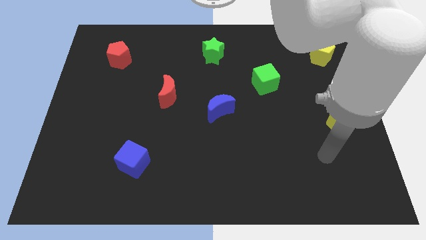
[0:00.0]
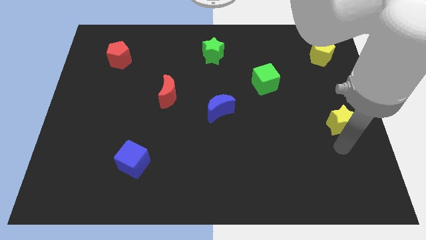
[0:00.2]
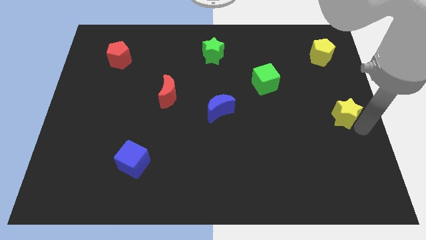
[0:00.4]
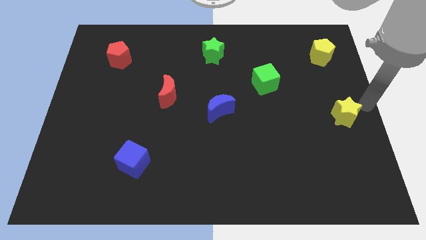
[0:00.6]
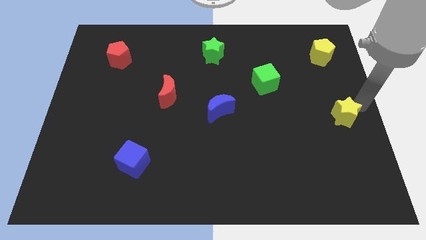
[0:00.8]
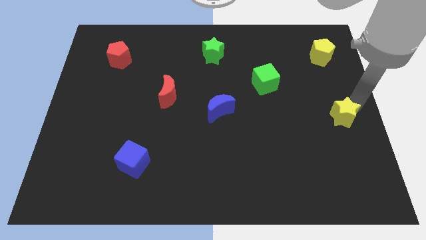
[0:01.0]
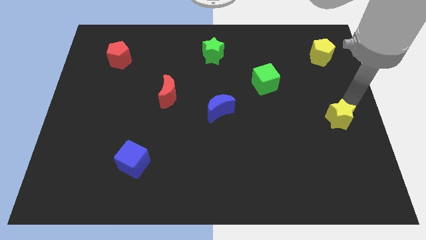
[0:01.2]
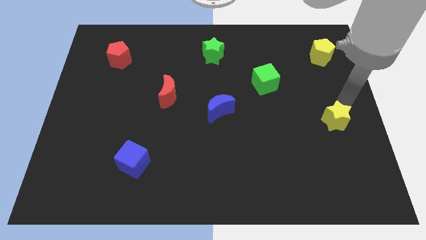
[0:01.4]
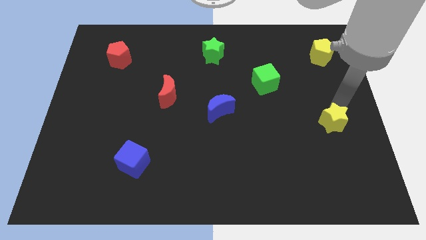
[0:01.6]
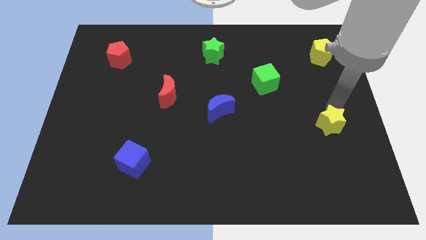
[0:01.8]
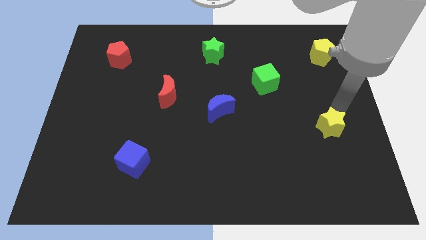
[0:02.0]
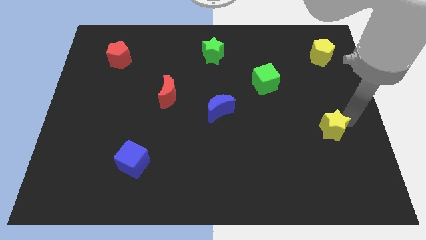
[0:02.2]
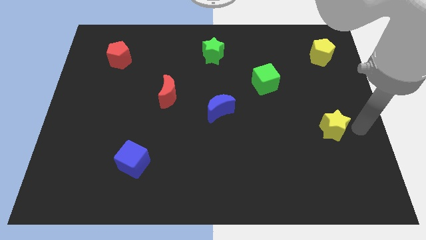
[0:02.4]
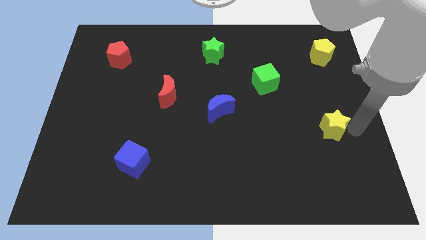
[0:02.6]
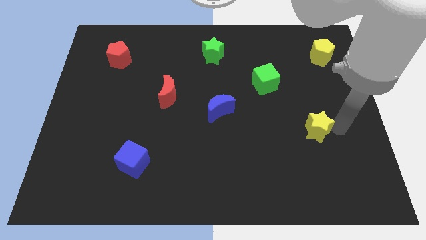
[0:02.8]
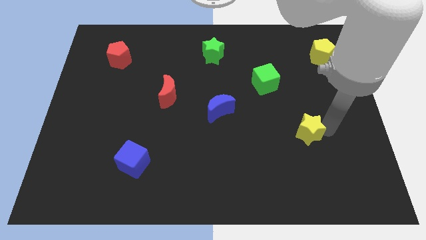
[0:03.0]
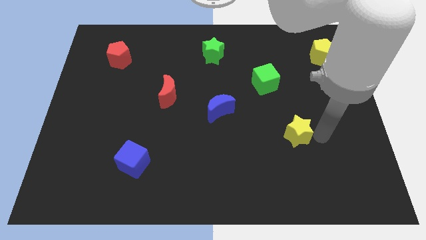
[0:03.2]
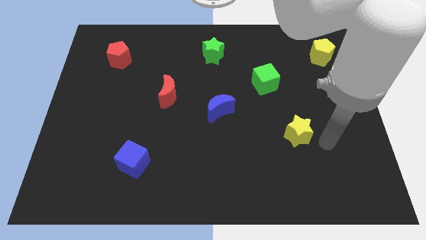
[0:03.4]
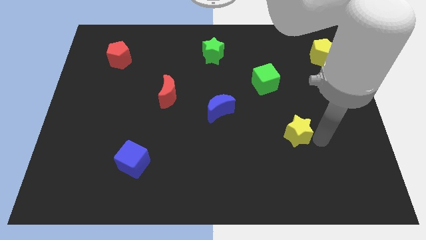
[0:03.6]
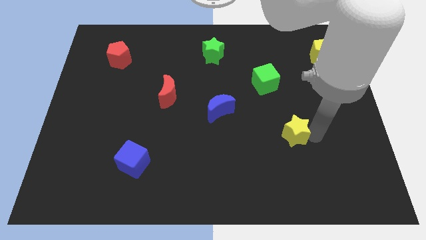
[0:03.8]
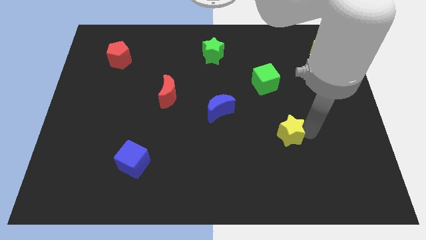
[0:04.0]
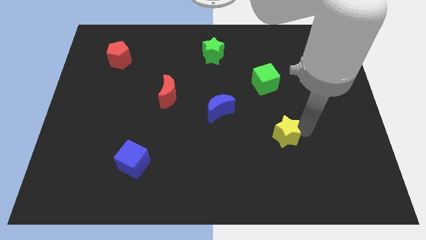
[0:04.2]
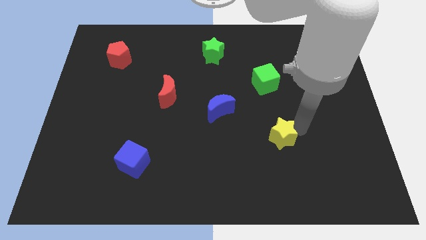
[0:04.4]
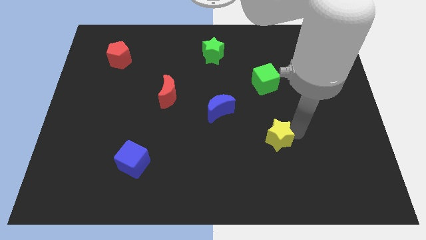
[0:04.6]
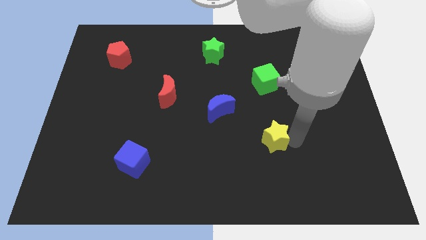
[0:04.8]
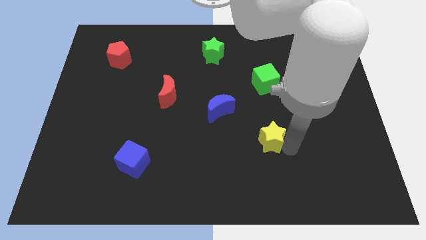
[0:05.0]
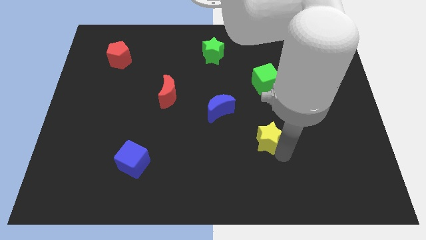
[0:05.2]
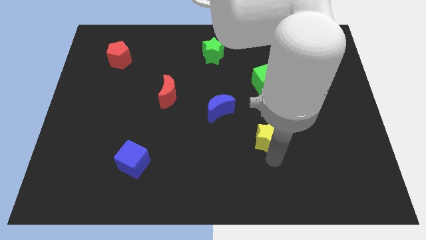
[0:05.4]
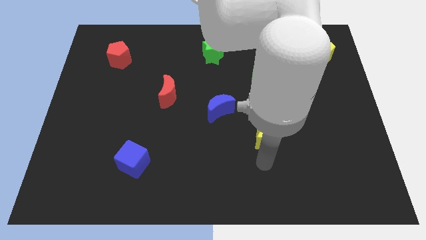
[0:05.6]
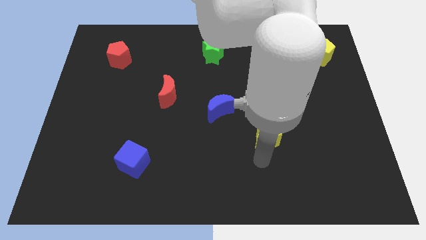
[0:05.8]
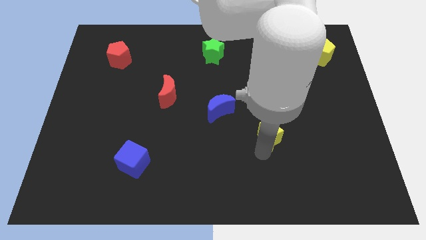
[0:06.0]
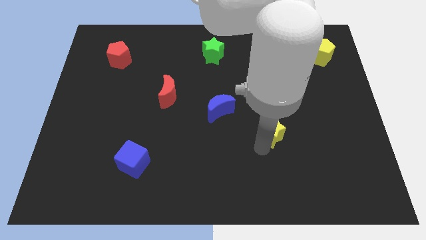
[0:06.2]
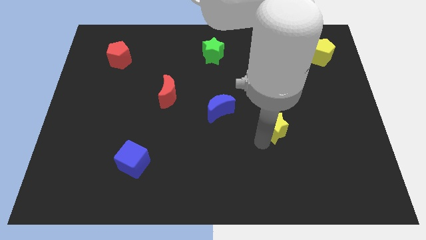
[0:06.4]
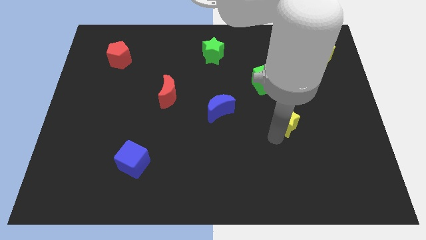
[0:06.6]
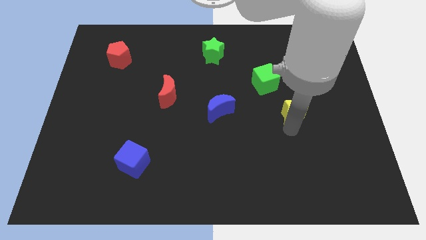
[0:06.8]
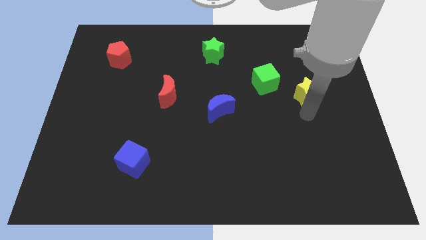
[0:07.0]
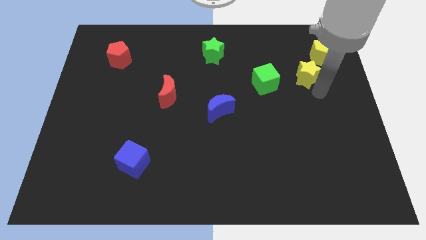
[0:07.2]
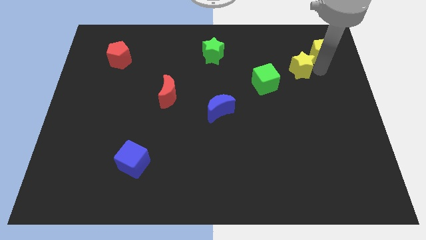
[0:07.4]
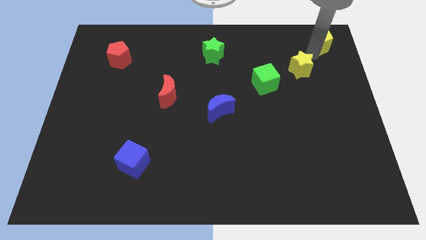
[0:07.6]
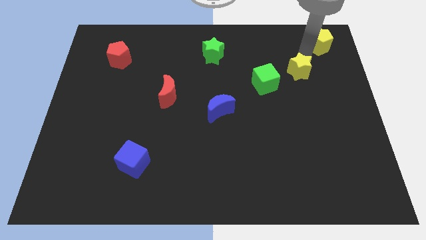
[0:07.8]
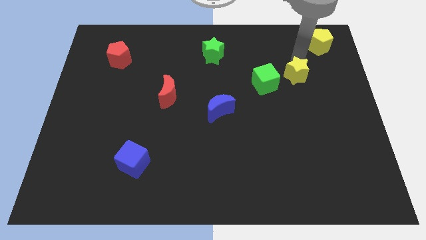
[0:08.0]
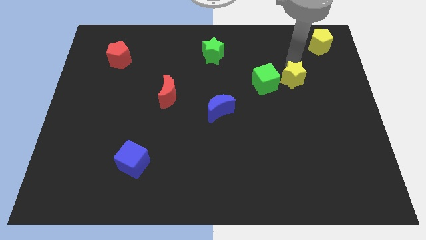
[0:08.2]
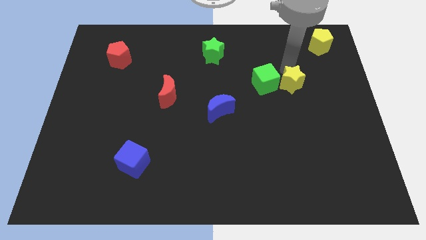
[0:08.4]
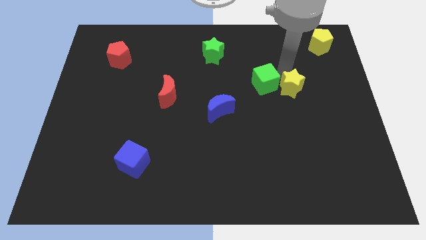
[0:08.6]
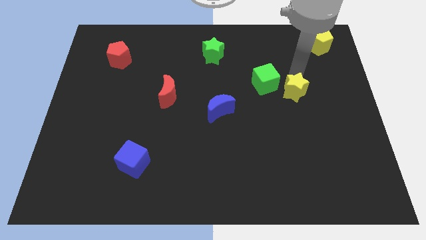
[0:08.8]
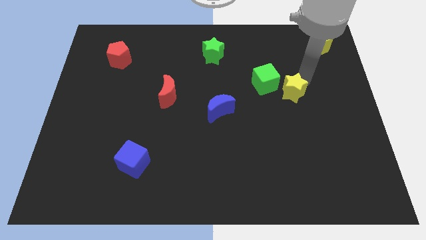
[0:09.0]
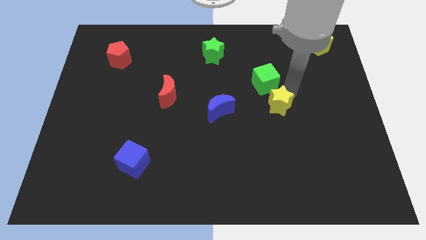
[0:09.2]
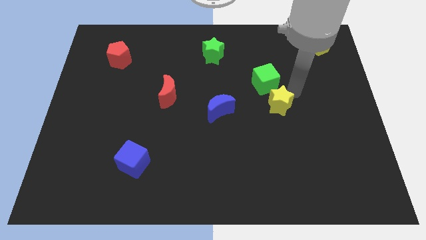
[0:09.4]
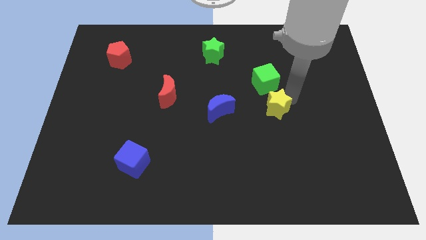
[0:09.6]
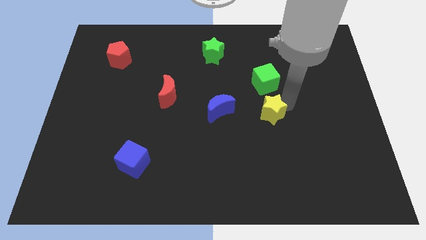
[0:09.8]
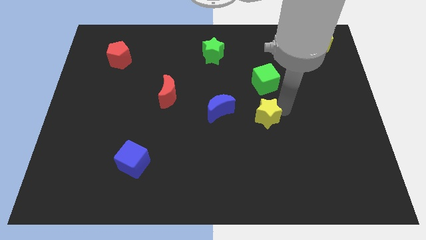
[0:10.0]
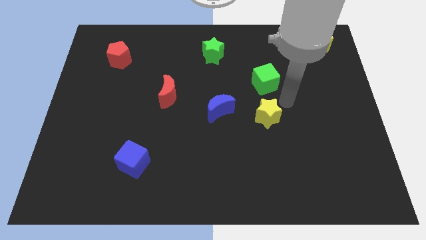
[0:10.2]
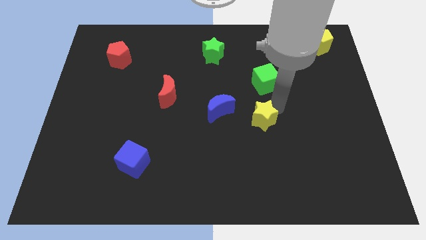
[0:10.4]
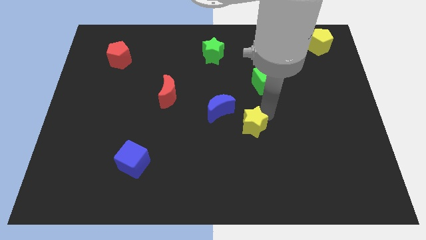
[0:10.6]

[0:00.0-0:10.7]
move the yellow star to the left

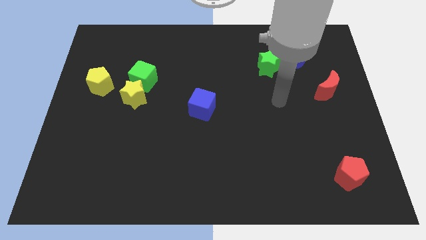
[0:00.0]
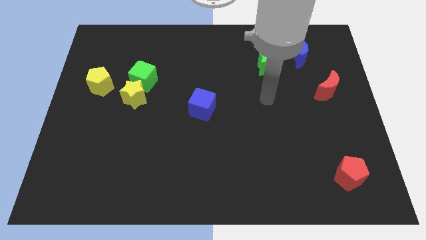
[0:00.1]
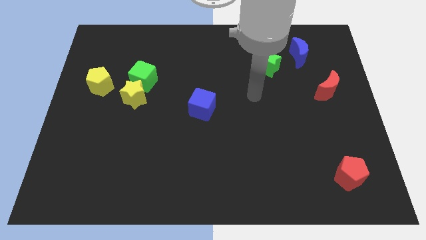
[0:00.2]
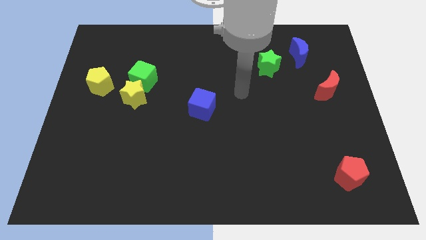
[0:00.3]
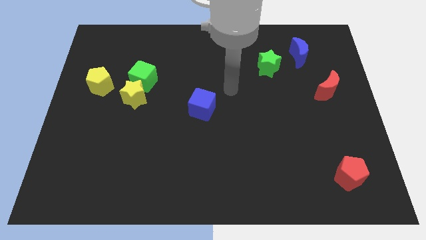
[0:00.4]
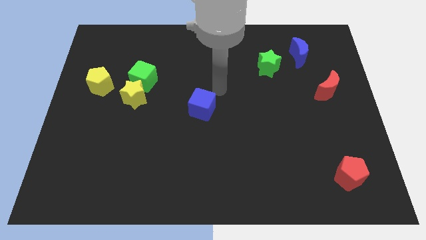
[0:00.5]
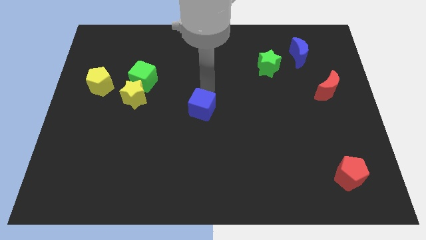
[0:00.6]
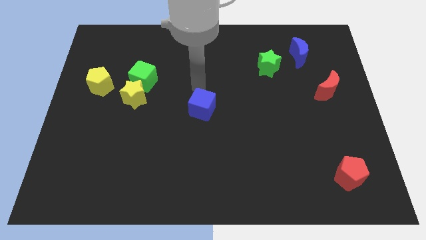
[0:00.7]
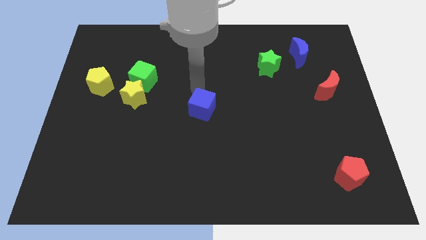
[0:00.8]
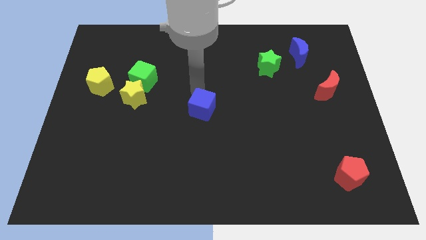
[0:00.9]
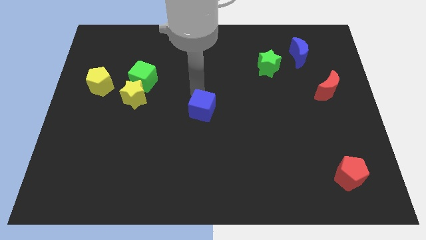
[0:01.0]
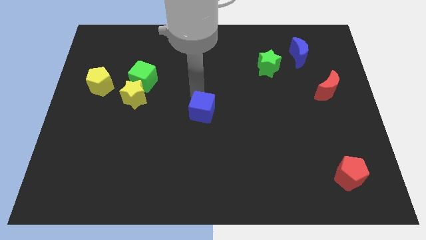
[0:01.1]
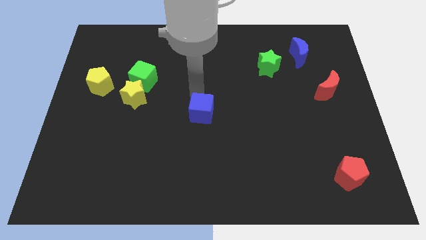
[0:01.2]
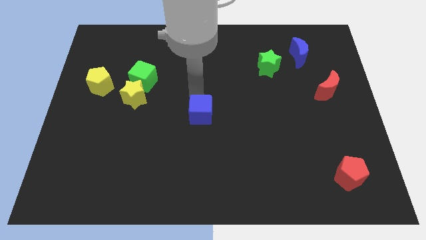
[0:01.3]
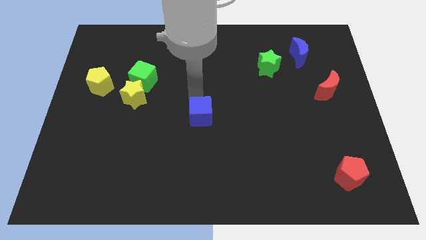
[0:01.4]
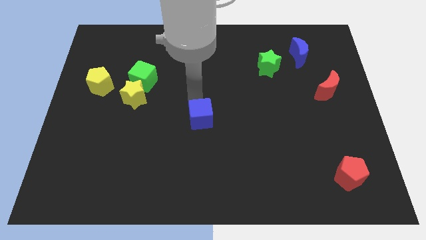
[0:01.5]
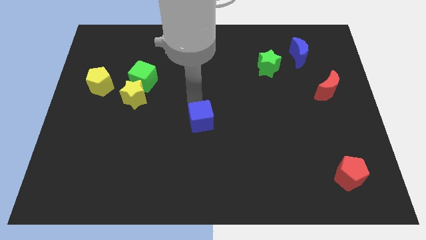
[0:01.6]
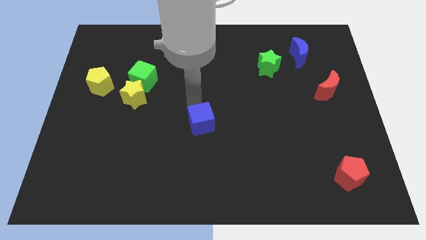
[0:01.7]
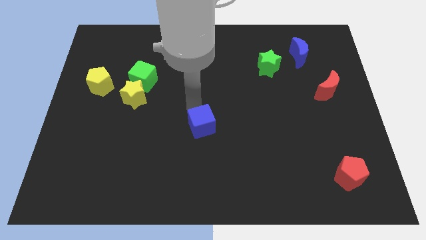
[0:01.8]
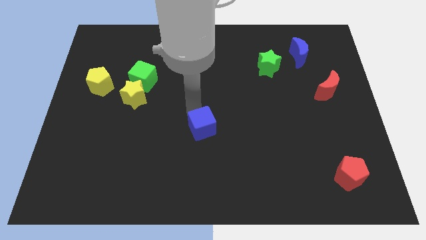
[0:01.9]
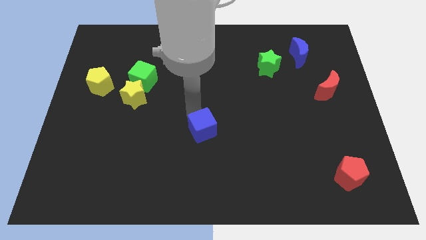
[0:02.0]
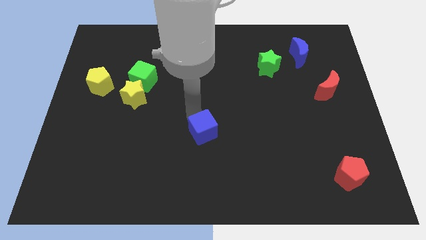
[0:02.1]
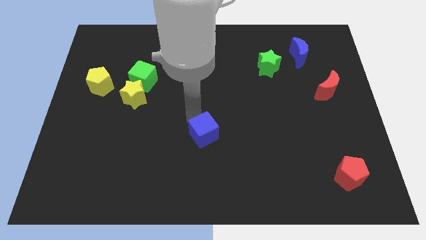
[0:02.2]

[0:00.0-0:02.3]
slide the blue cube somewhat down

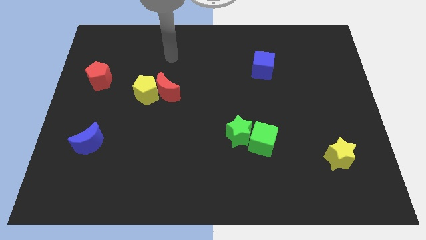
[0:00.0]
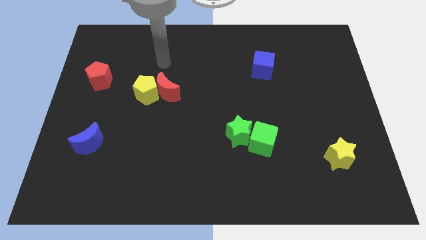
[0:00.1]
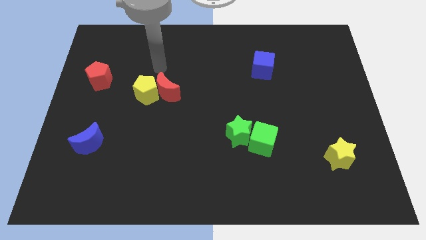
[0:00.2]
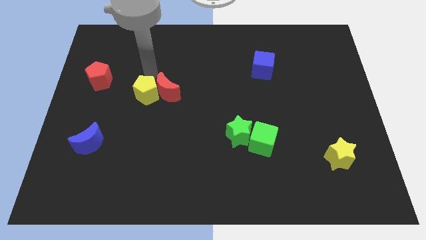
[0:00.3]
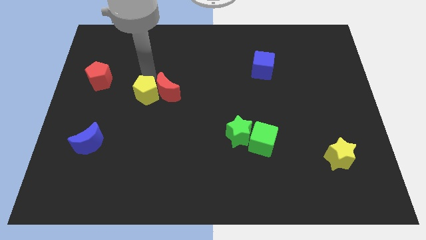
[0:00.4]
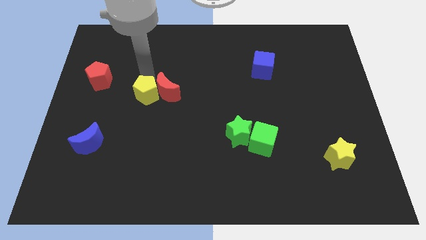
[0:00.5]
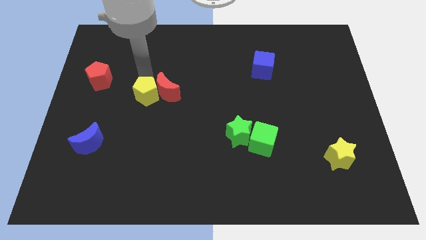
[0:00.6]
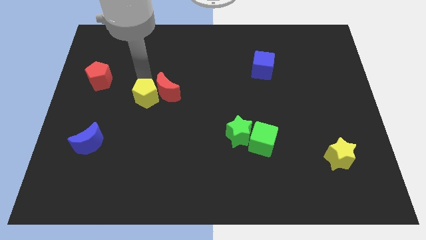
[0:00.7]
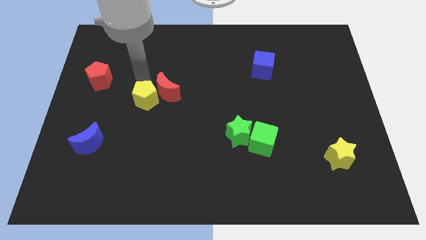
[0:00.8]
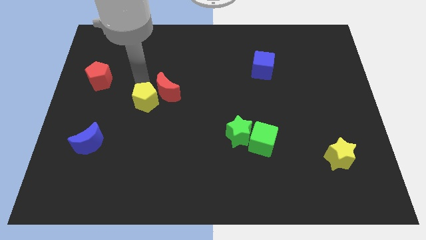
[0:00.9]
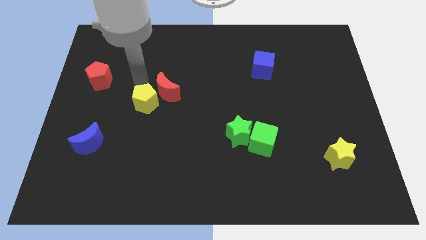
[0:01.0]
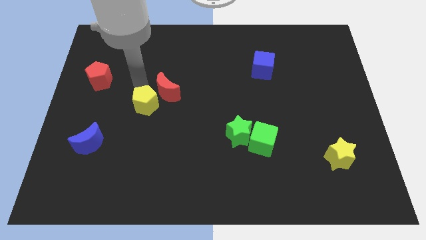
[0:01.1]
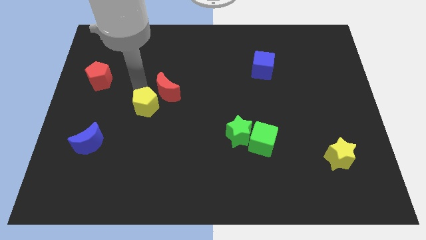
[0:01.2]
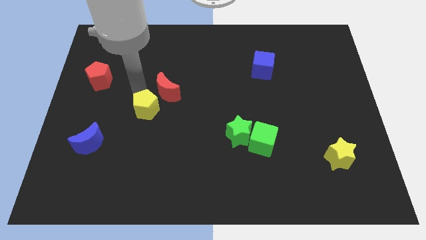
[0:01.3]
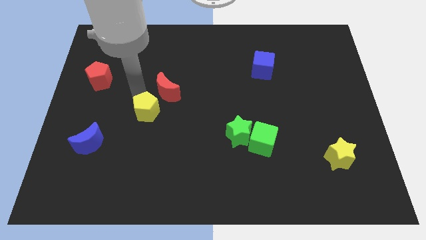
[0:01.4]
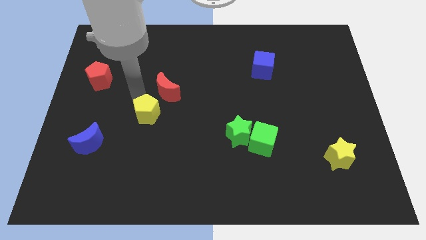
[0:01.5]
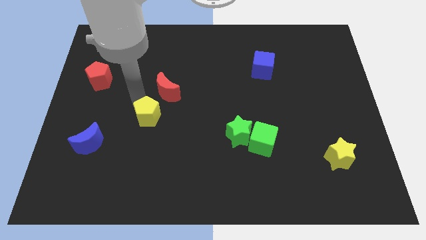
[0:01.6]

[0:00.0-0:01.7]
slightly move the yellow pentagon down
